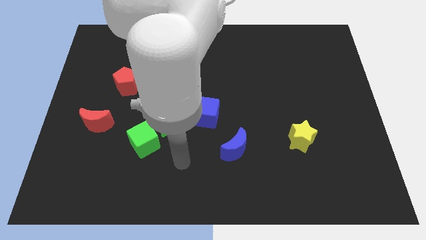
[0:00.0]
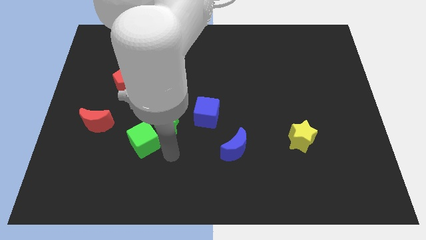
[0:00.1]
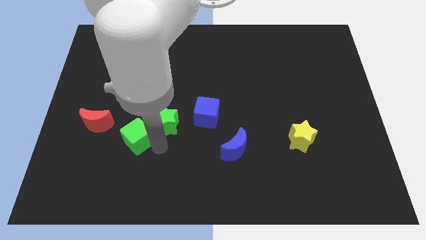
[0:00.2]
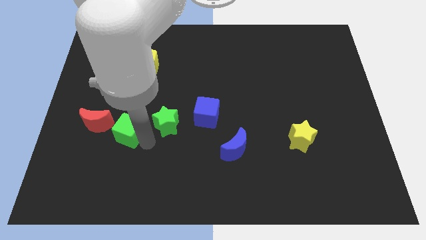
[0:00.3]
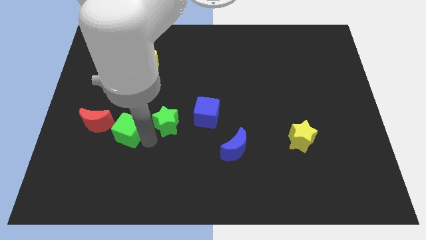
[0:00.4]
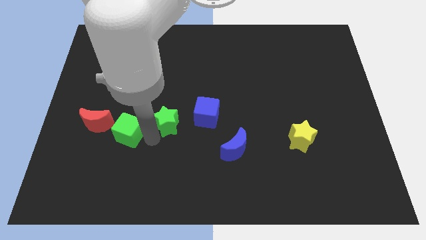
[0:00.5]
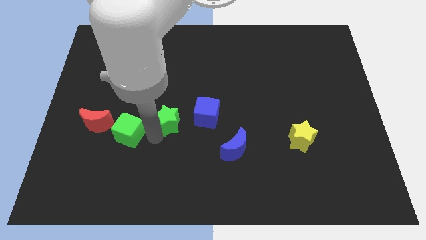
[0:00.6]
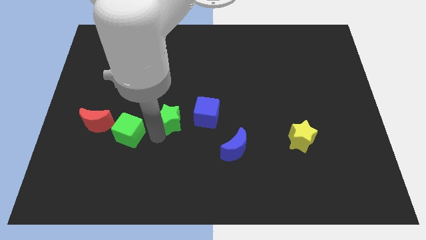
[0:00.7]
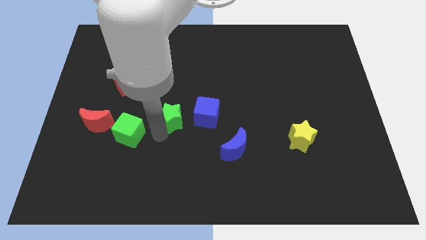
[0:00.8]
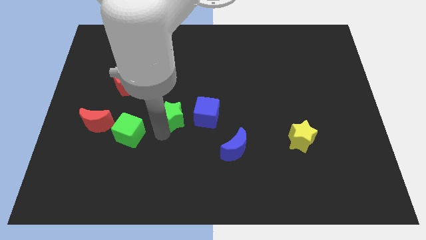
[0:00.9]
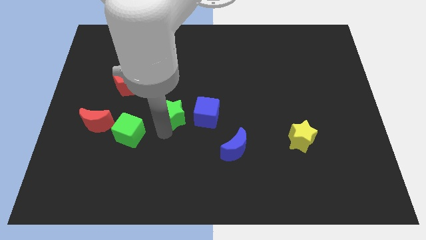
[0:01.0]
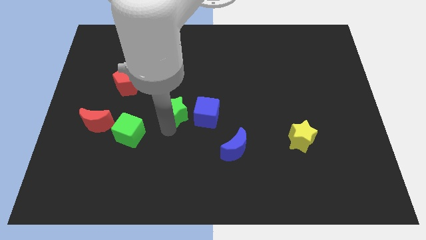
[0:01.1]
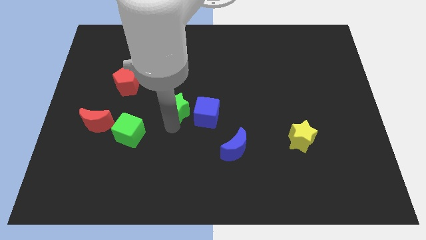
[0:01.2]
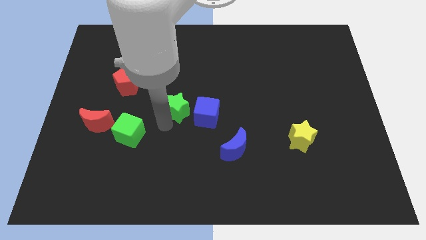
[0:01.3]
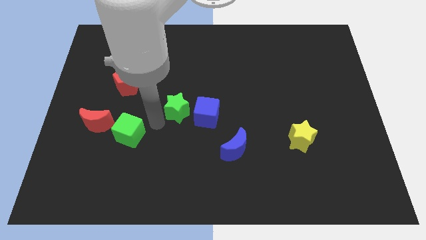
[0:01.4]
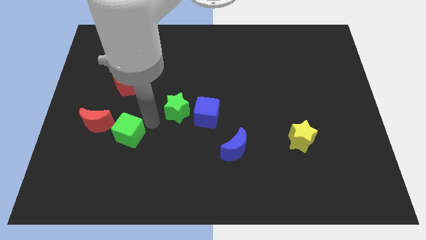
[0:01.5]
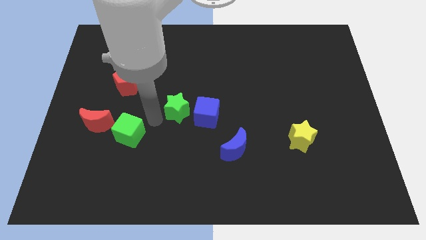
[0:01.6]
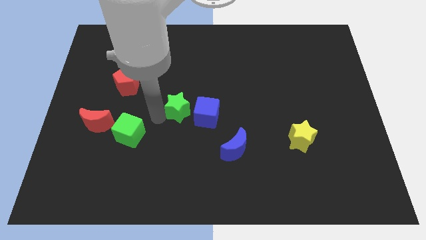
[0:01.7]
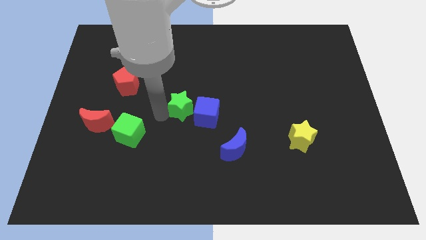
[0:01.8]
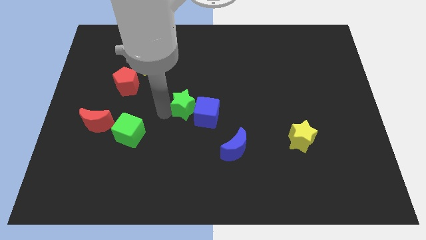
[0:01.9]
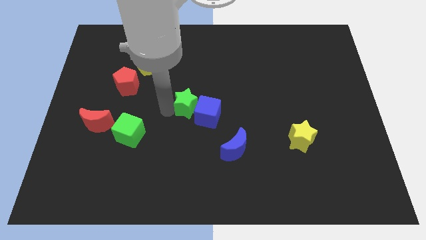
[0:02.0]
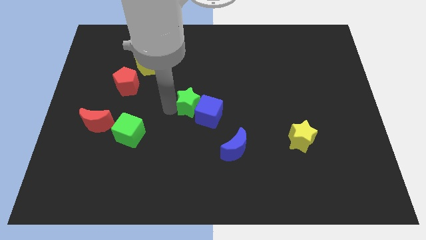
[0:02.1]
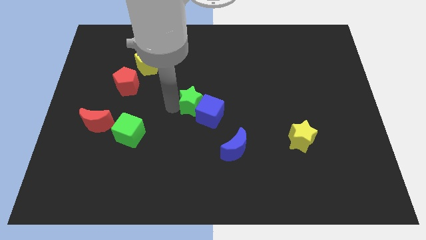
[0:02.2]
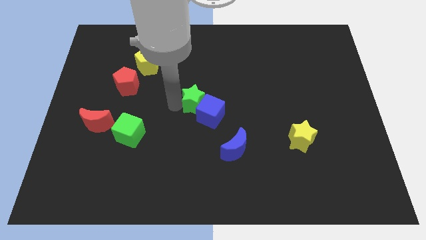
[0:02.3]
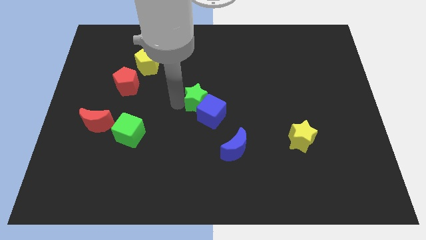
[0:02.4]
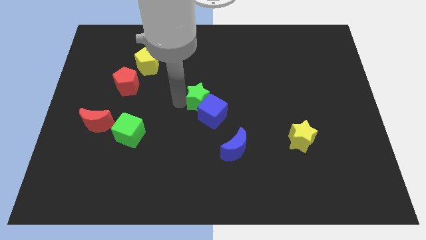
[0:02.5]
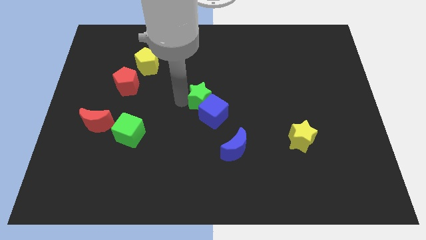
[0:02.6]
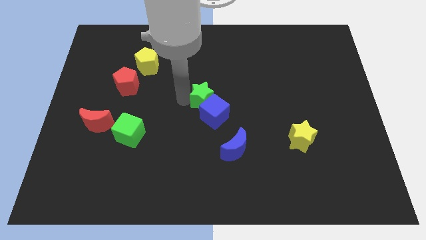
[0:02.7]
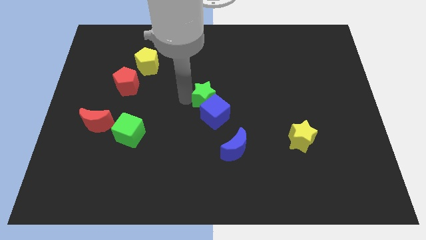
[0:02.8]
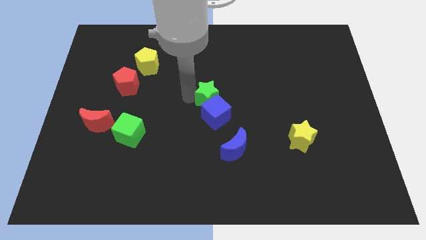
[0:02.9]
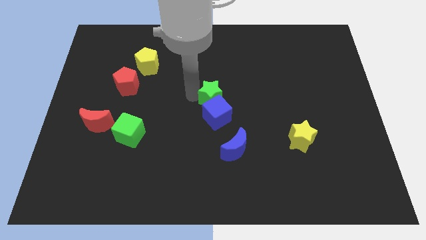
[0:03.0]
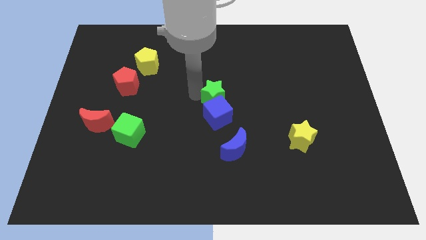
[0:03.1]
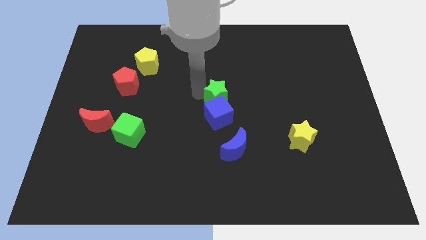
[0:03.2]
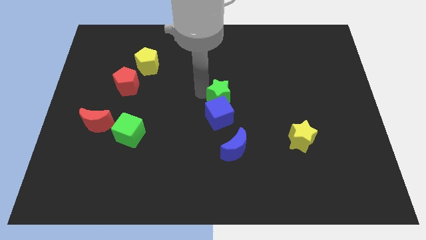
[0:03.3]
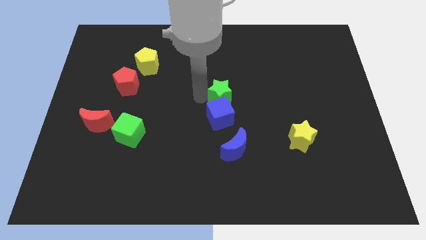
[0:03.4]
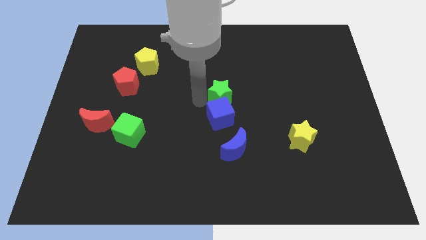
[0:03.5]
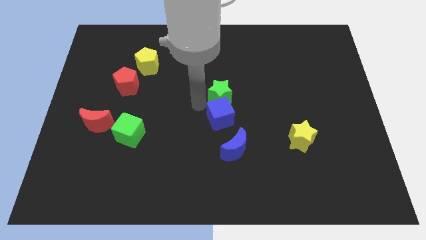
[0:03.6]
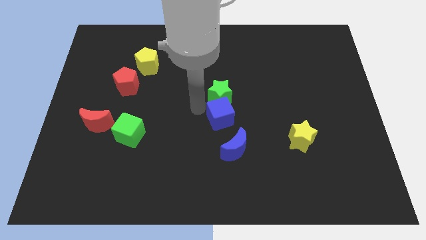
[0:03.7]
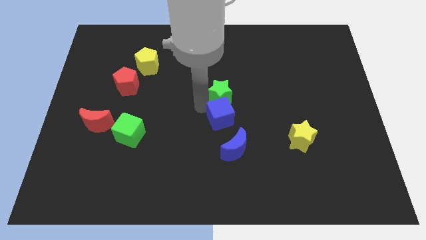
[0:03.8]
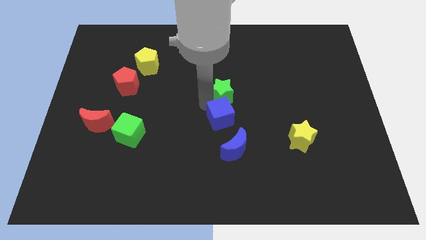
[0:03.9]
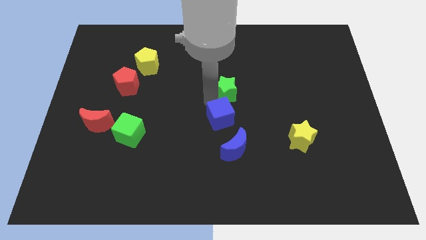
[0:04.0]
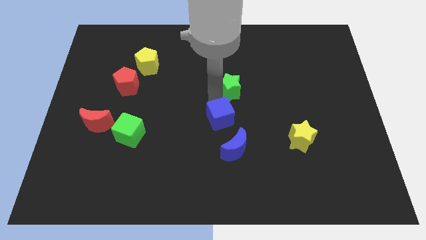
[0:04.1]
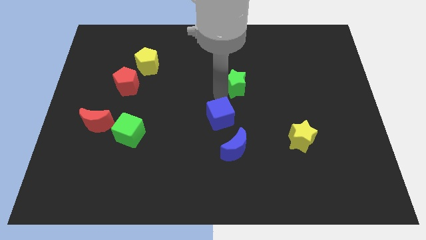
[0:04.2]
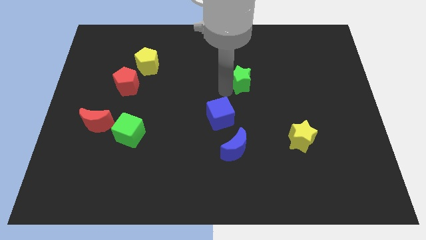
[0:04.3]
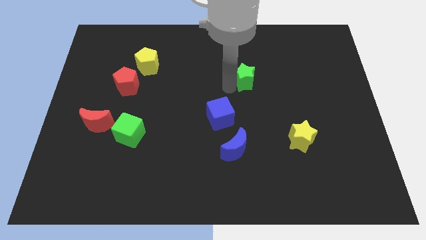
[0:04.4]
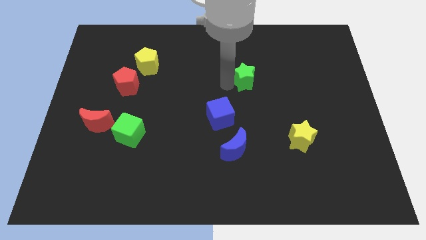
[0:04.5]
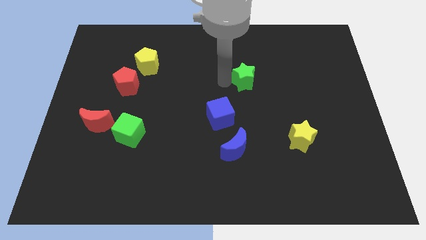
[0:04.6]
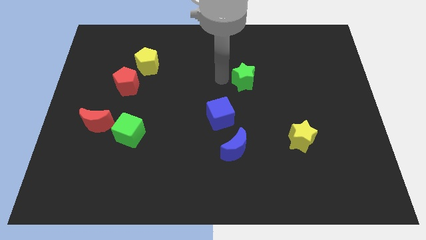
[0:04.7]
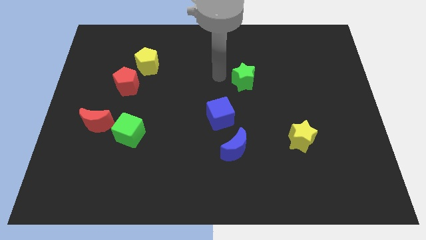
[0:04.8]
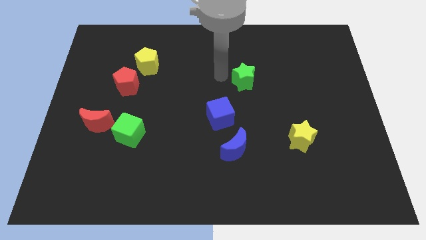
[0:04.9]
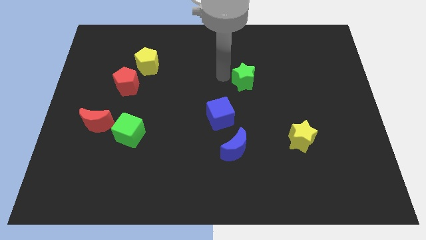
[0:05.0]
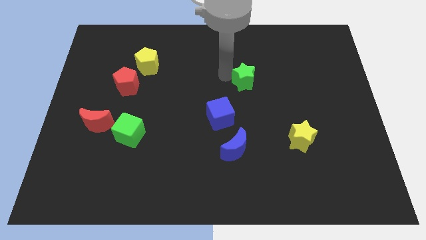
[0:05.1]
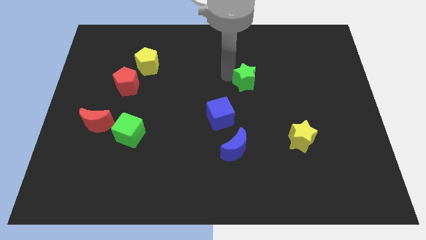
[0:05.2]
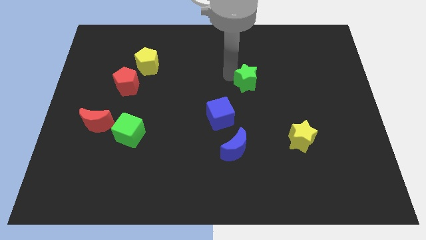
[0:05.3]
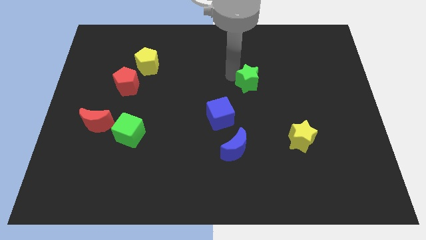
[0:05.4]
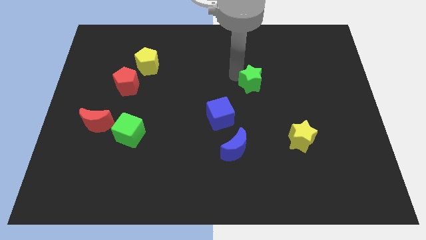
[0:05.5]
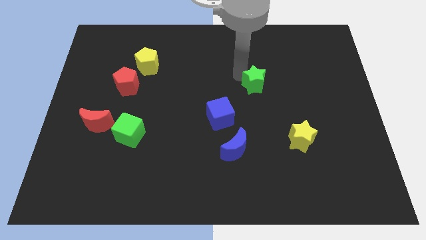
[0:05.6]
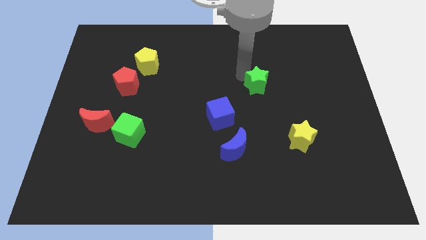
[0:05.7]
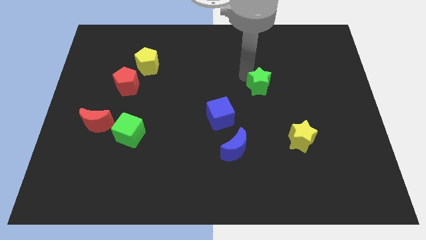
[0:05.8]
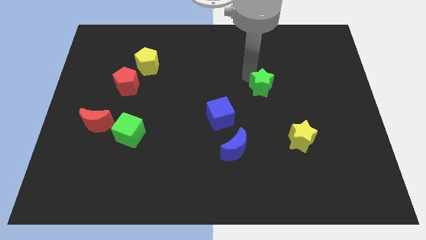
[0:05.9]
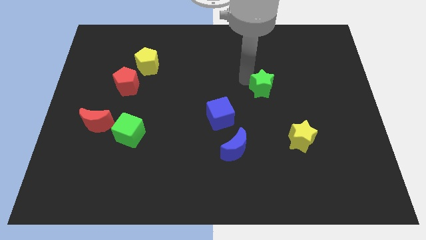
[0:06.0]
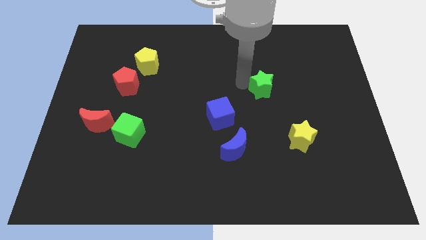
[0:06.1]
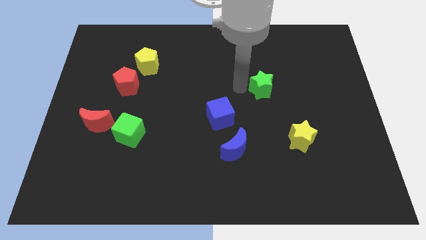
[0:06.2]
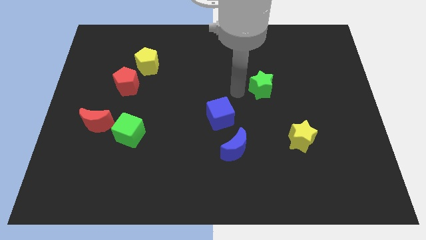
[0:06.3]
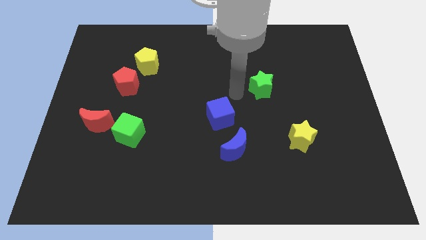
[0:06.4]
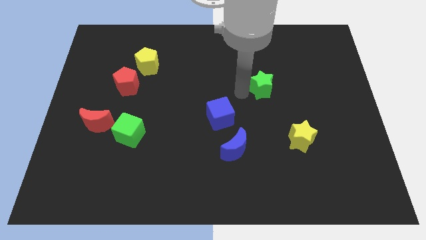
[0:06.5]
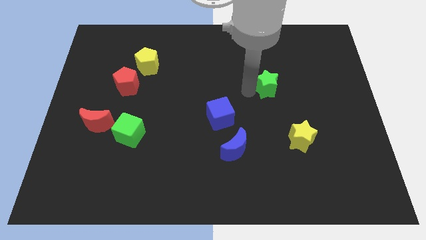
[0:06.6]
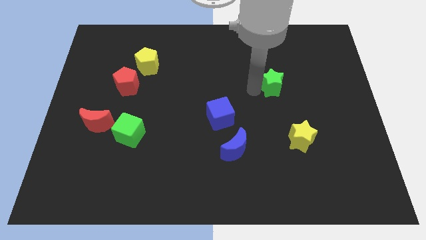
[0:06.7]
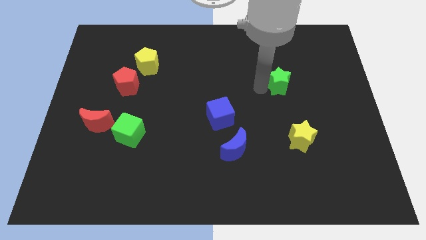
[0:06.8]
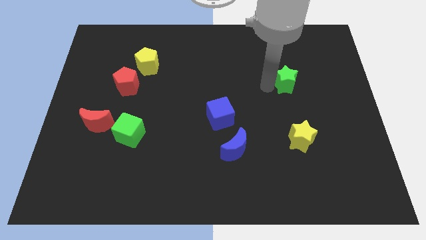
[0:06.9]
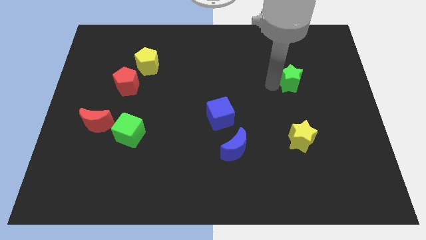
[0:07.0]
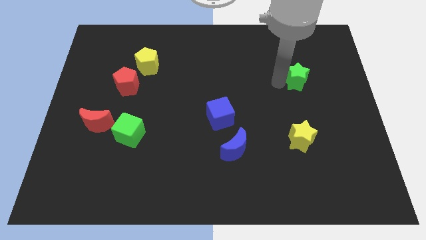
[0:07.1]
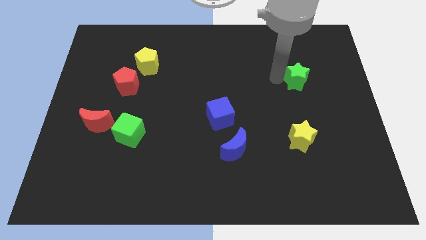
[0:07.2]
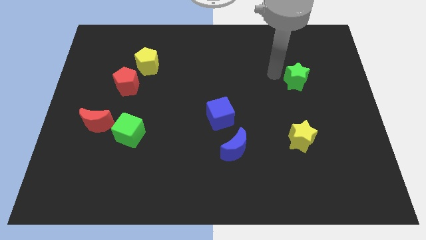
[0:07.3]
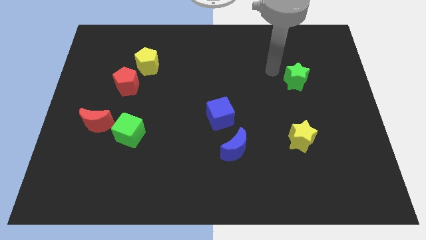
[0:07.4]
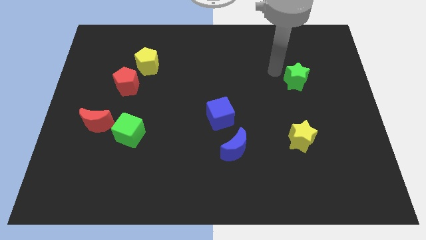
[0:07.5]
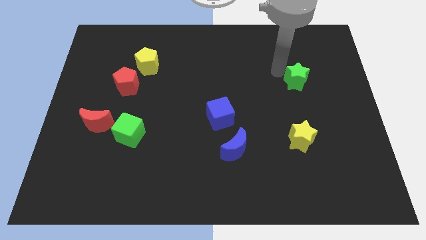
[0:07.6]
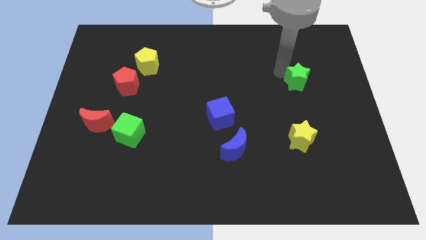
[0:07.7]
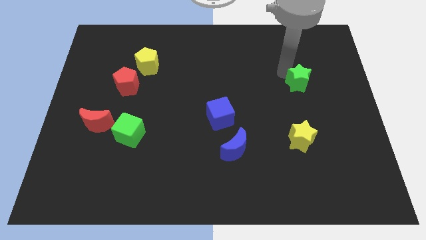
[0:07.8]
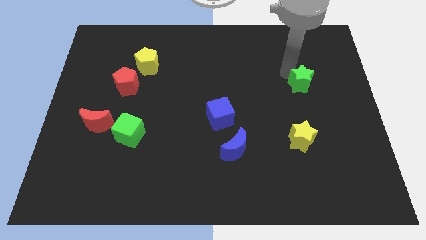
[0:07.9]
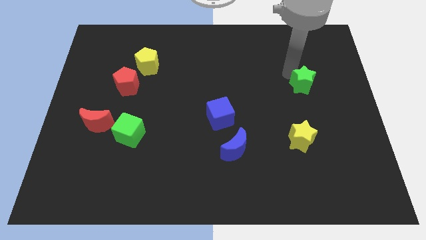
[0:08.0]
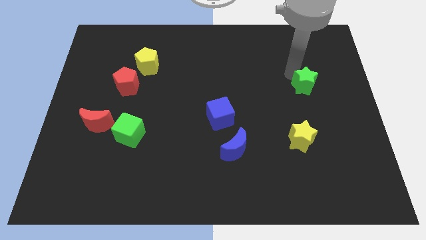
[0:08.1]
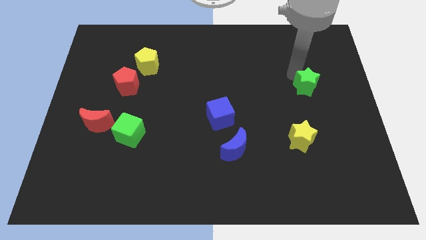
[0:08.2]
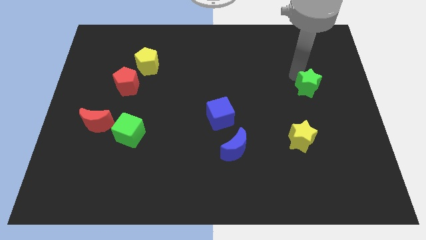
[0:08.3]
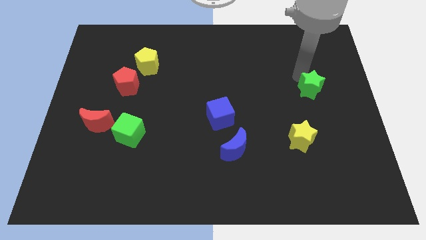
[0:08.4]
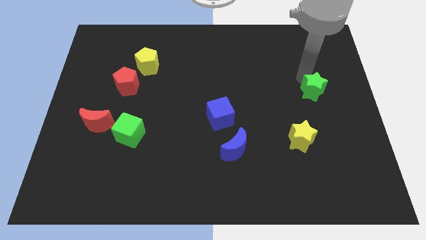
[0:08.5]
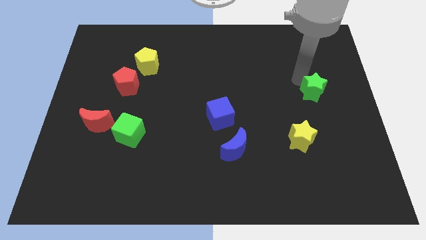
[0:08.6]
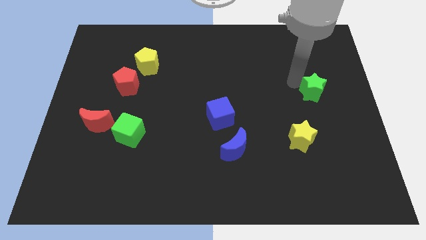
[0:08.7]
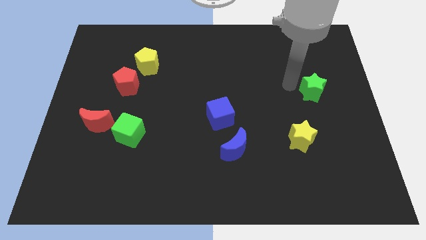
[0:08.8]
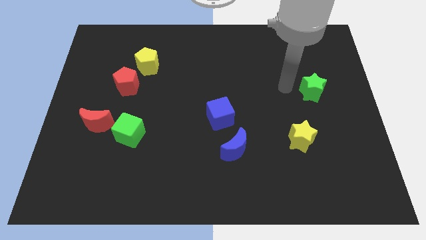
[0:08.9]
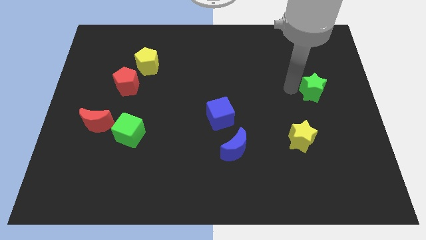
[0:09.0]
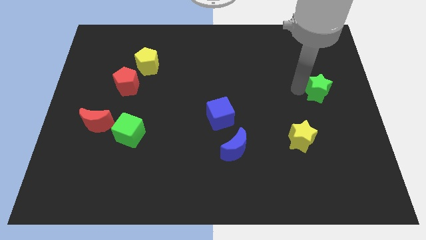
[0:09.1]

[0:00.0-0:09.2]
slide the green star to the center right
